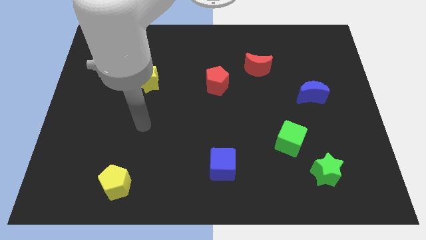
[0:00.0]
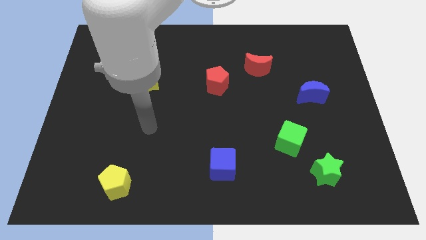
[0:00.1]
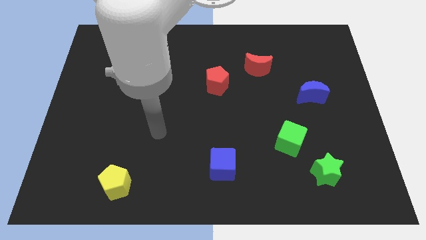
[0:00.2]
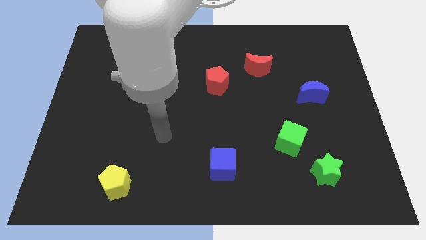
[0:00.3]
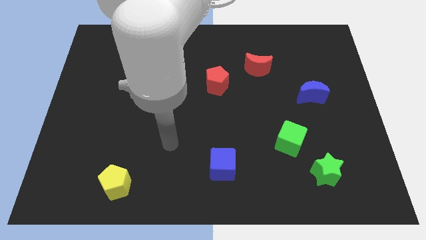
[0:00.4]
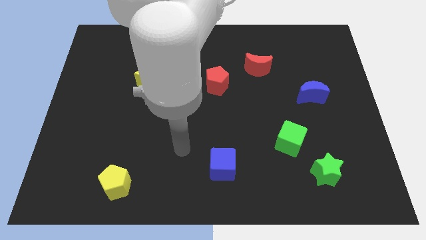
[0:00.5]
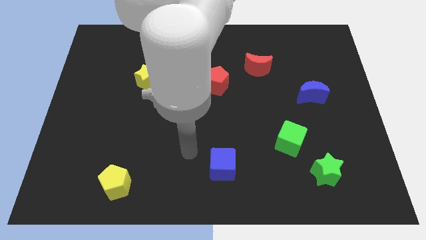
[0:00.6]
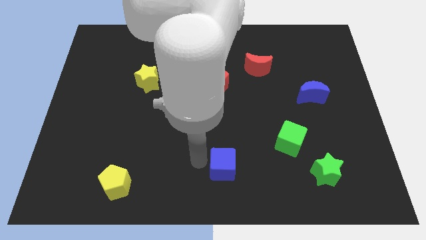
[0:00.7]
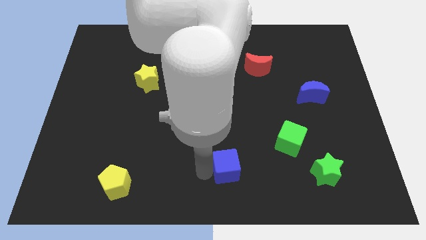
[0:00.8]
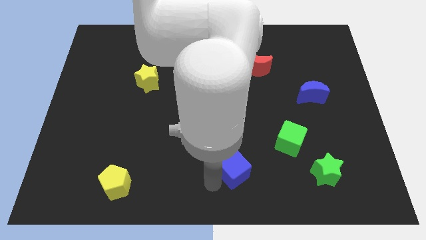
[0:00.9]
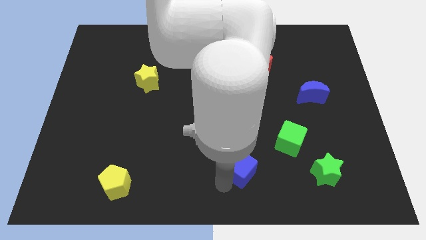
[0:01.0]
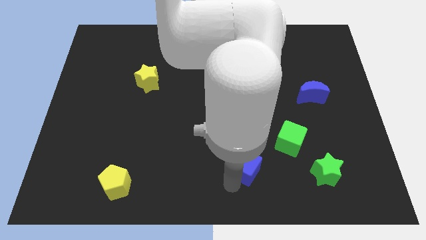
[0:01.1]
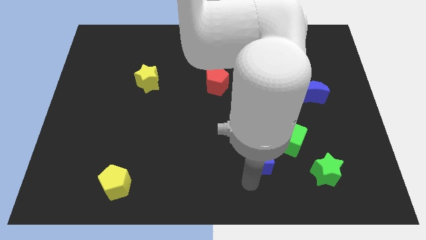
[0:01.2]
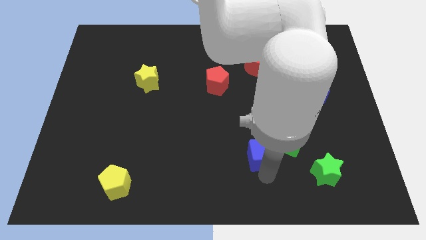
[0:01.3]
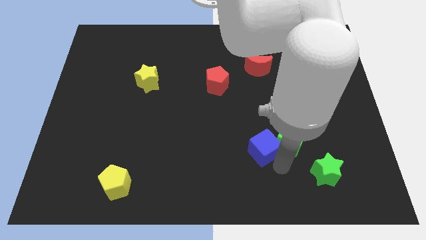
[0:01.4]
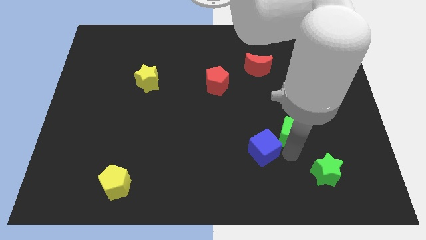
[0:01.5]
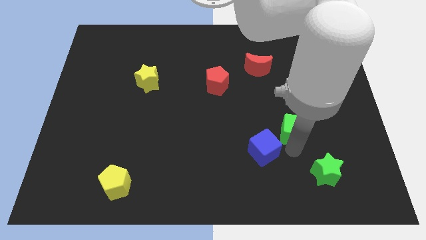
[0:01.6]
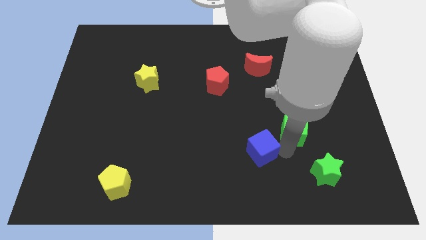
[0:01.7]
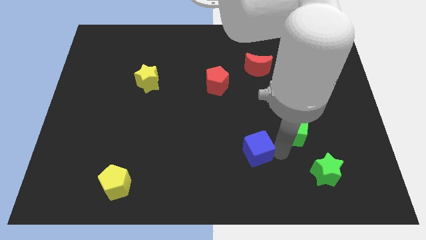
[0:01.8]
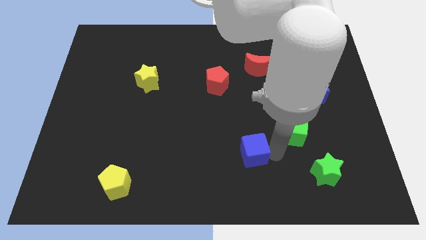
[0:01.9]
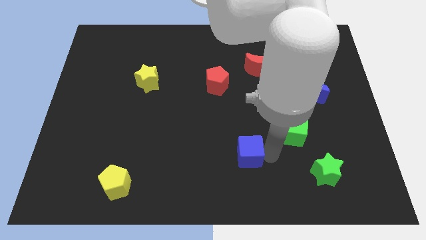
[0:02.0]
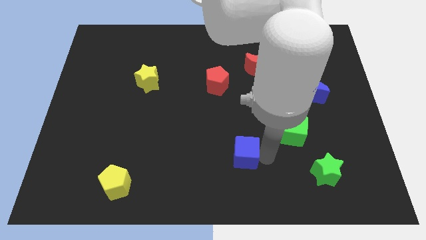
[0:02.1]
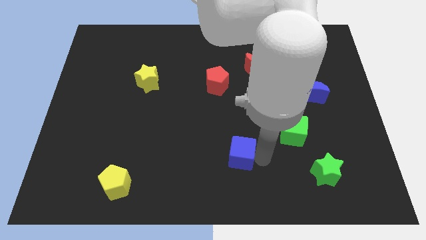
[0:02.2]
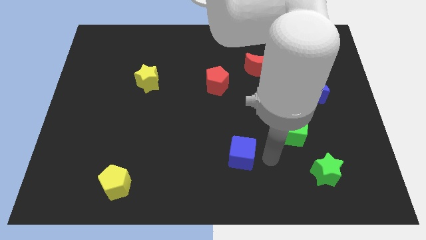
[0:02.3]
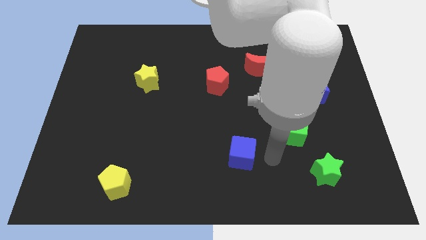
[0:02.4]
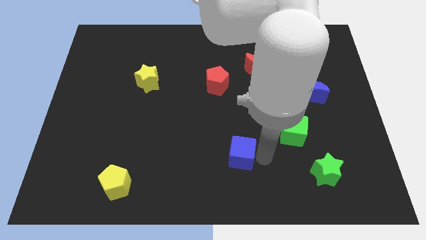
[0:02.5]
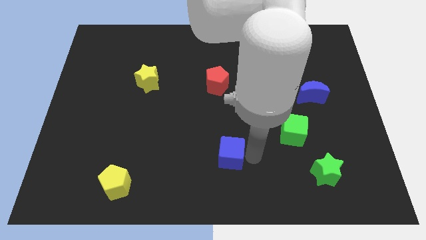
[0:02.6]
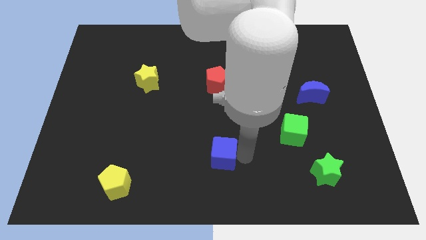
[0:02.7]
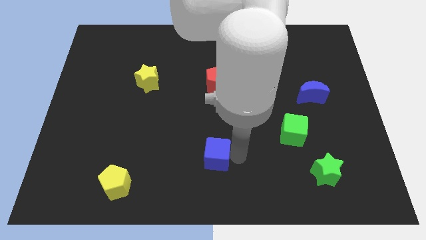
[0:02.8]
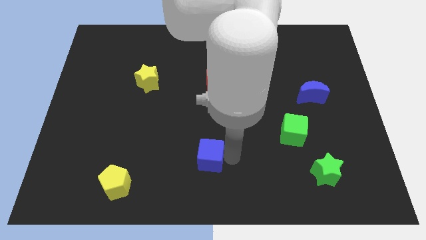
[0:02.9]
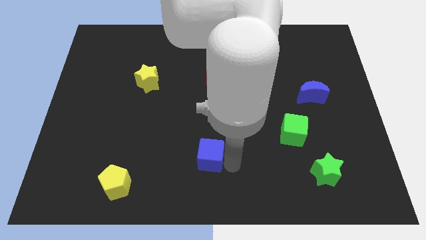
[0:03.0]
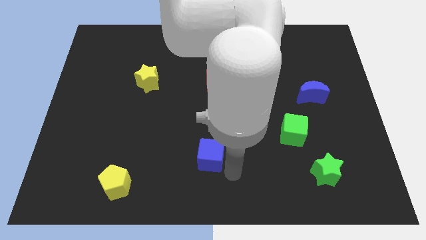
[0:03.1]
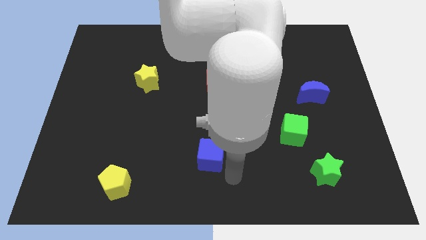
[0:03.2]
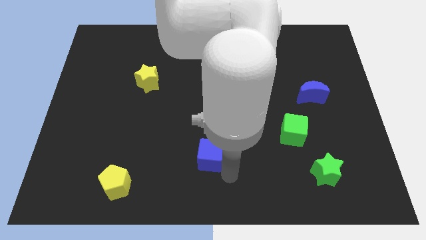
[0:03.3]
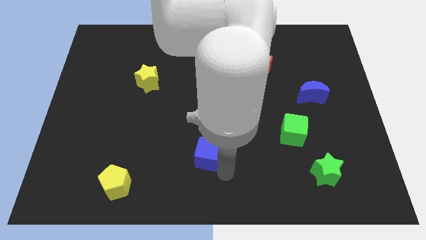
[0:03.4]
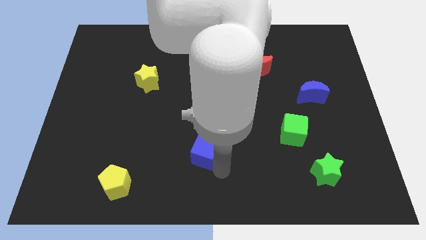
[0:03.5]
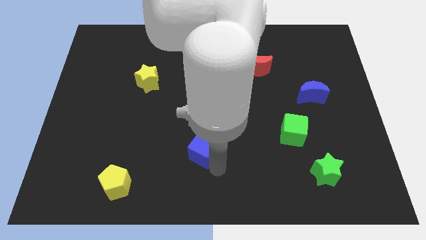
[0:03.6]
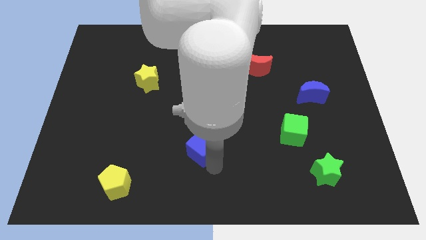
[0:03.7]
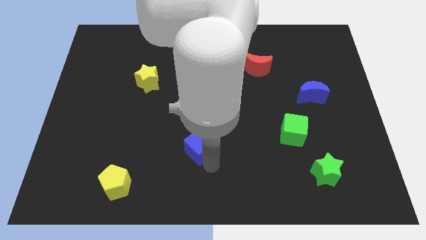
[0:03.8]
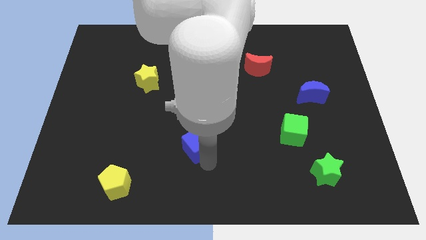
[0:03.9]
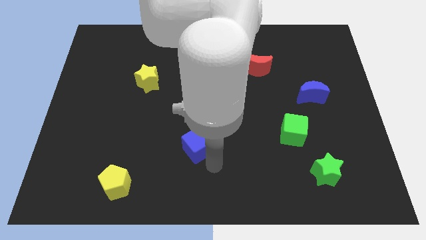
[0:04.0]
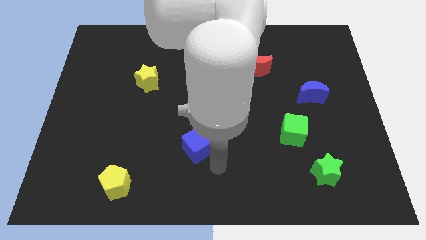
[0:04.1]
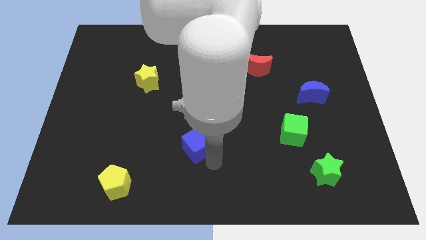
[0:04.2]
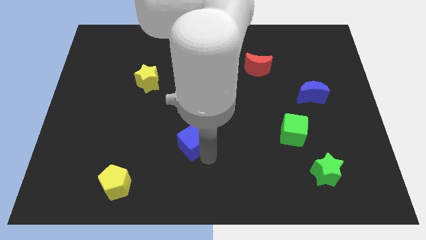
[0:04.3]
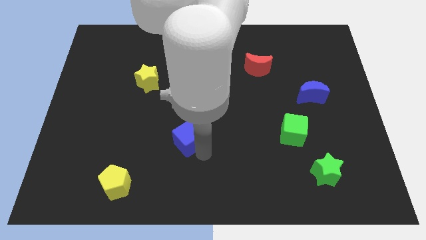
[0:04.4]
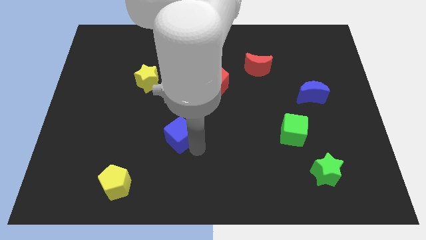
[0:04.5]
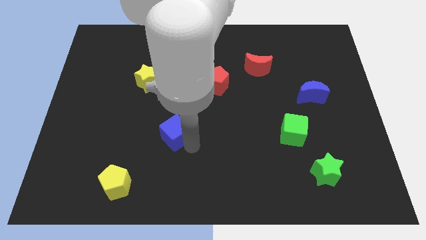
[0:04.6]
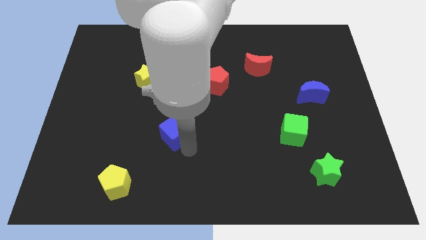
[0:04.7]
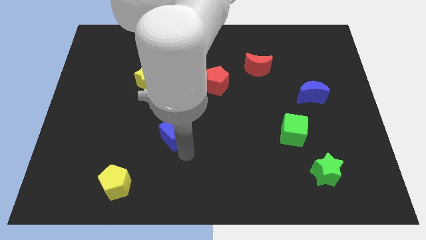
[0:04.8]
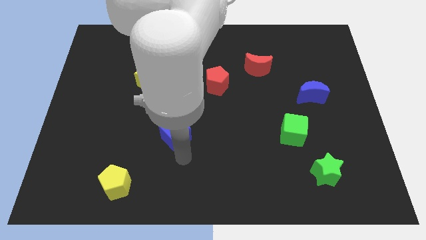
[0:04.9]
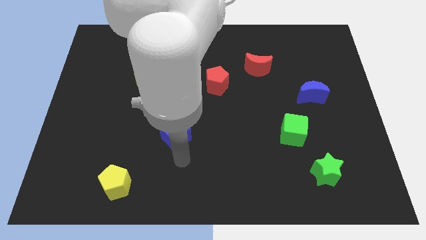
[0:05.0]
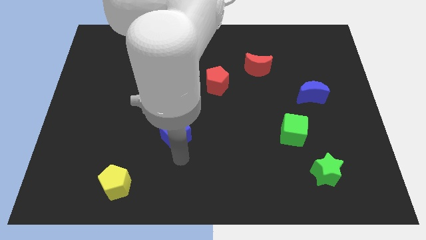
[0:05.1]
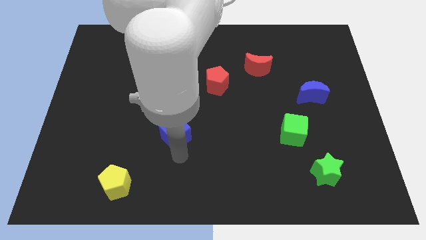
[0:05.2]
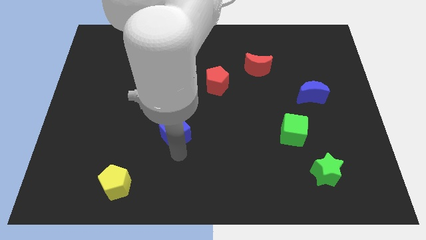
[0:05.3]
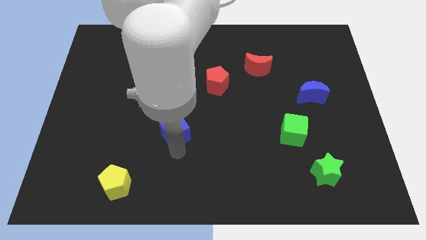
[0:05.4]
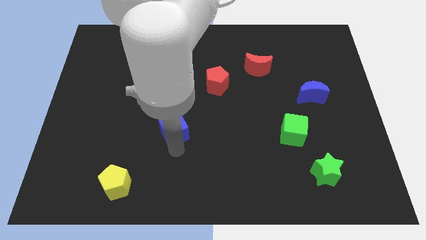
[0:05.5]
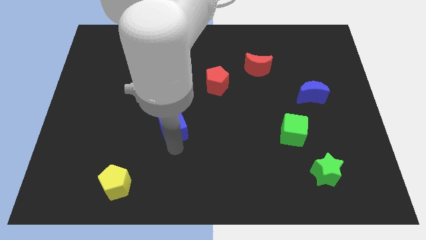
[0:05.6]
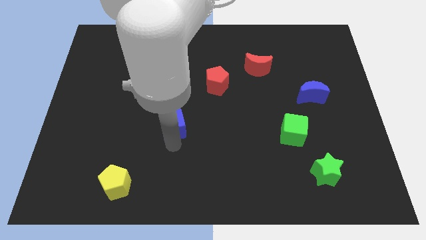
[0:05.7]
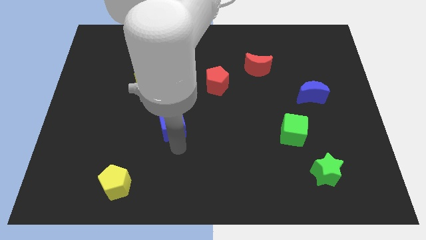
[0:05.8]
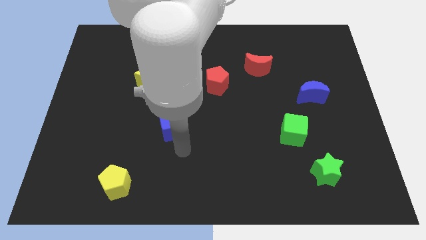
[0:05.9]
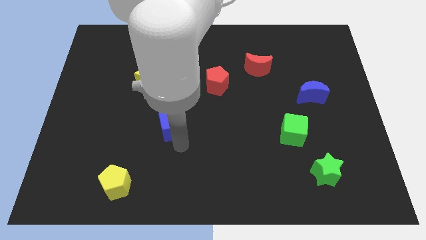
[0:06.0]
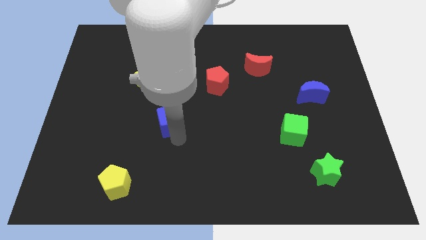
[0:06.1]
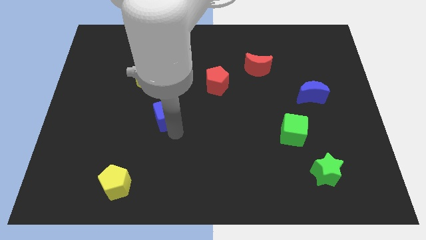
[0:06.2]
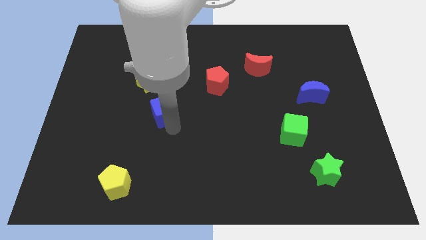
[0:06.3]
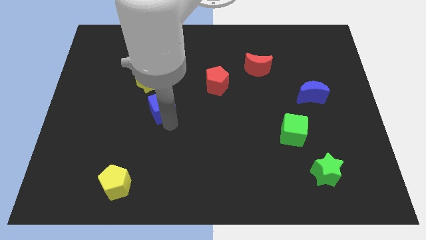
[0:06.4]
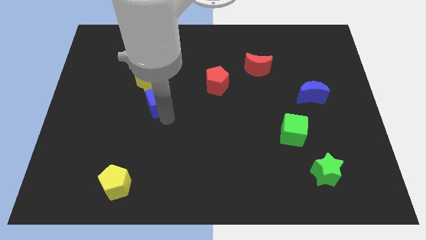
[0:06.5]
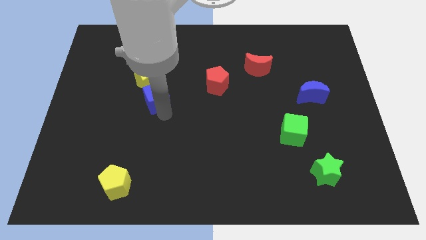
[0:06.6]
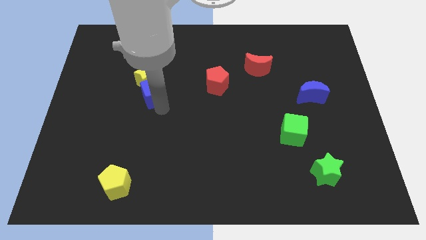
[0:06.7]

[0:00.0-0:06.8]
push the blue cube towards the yellow star
